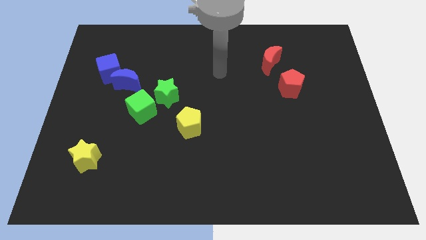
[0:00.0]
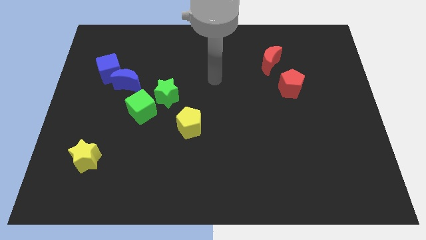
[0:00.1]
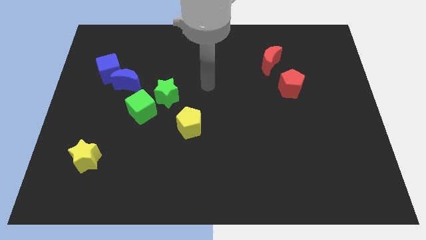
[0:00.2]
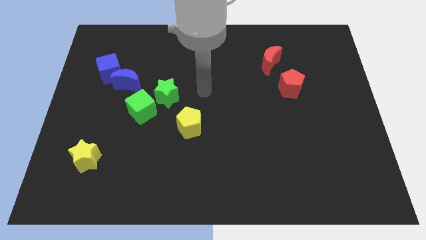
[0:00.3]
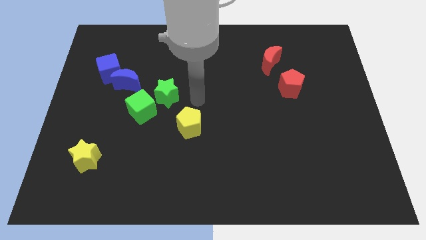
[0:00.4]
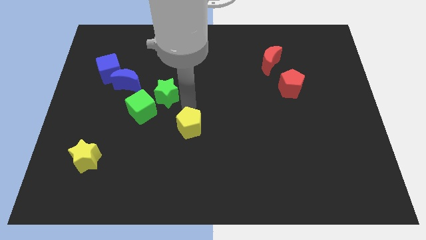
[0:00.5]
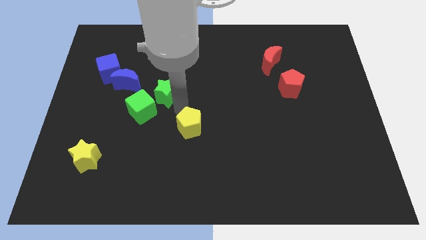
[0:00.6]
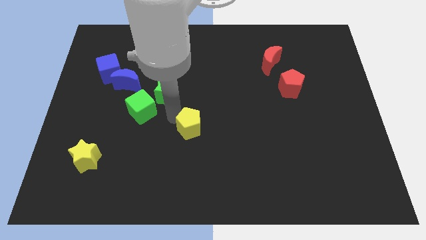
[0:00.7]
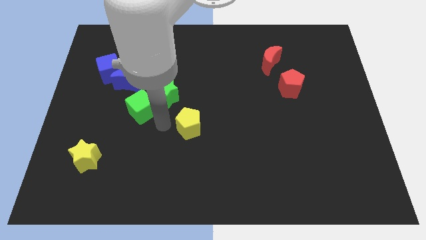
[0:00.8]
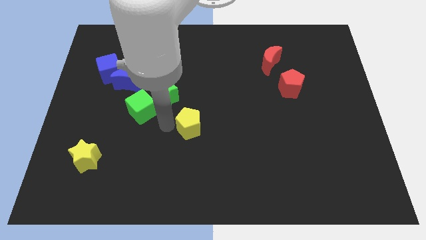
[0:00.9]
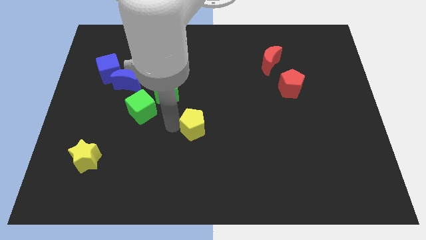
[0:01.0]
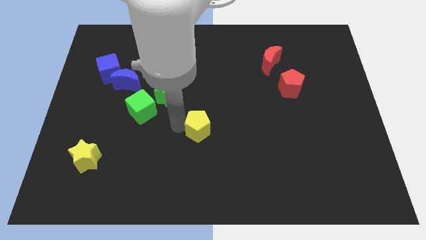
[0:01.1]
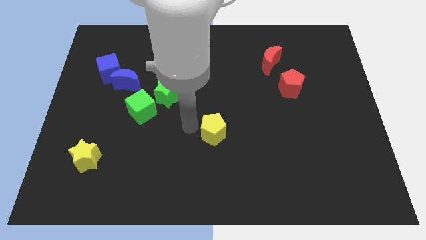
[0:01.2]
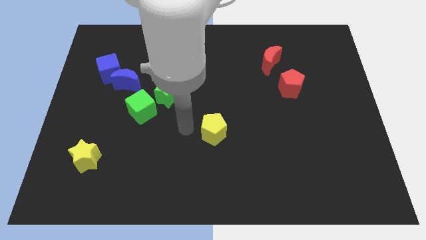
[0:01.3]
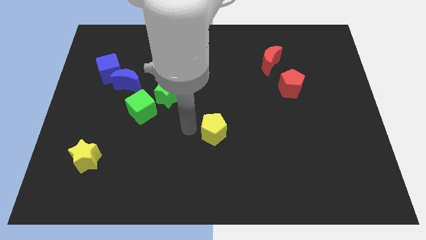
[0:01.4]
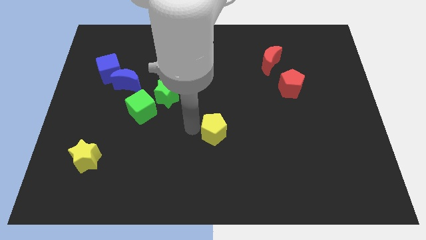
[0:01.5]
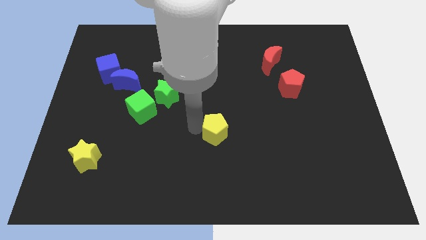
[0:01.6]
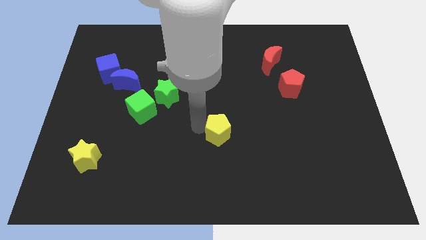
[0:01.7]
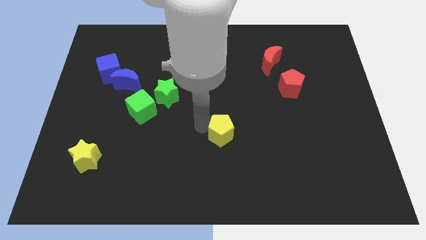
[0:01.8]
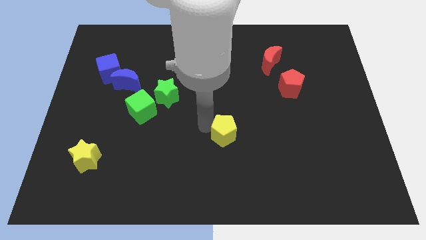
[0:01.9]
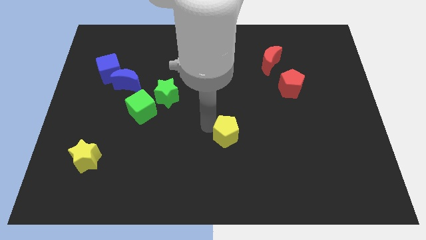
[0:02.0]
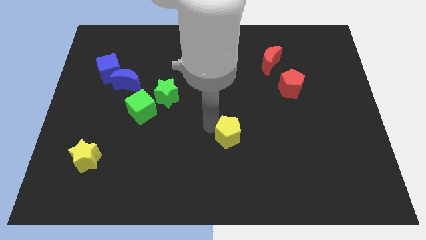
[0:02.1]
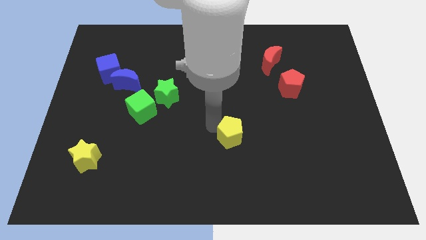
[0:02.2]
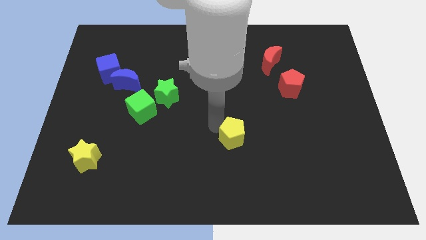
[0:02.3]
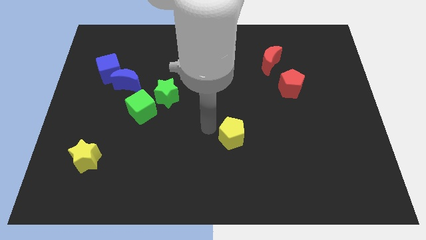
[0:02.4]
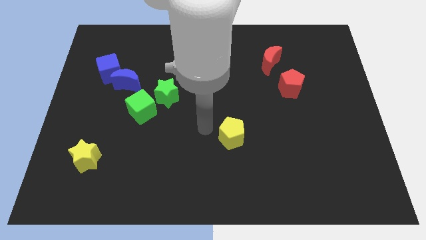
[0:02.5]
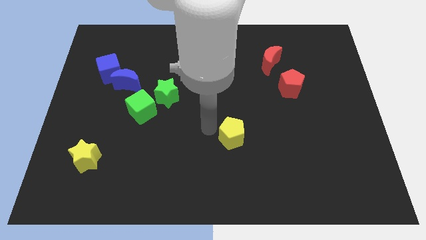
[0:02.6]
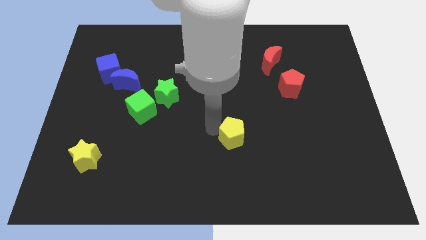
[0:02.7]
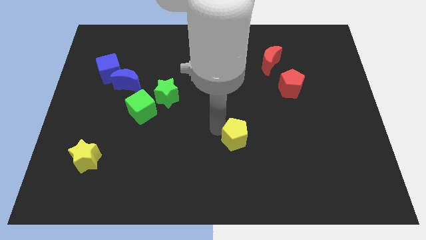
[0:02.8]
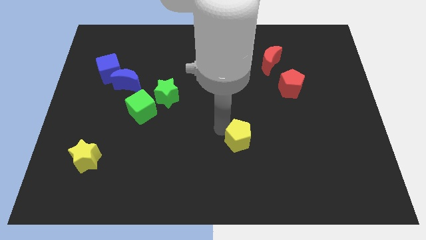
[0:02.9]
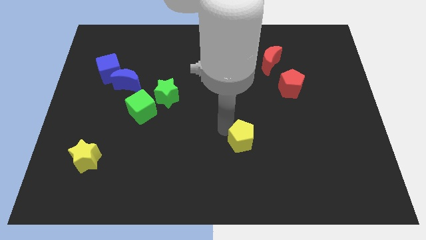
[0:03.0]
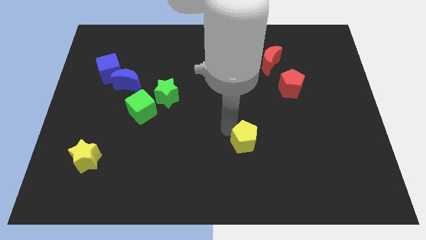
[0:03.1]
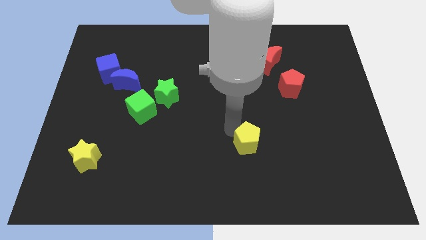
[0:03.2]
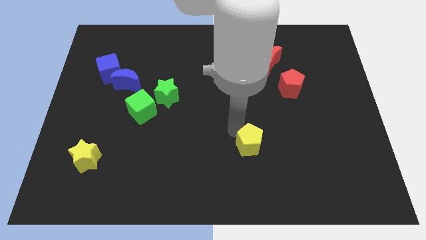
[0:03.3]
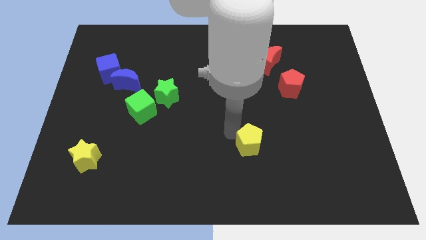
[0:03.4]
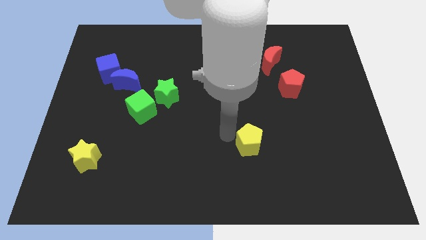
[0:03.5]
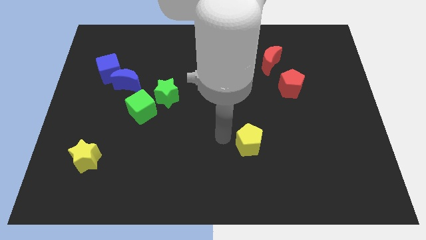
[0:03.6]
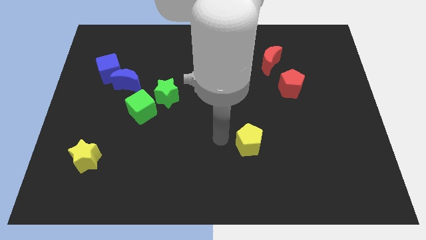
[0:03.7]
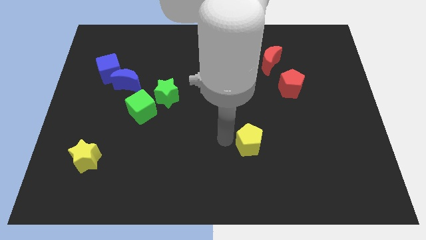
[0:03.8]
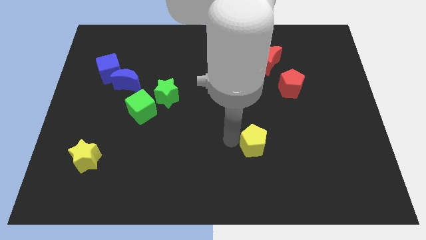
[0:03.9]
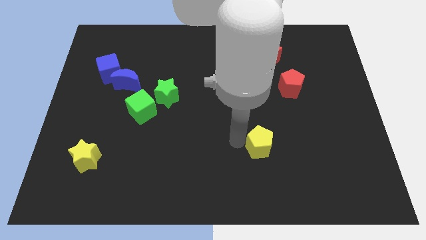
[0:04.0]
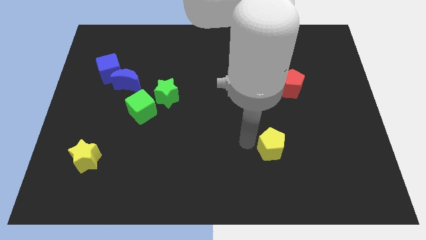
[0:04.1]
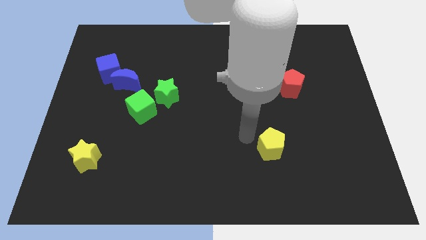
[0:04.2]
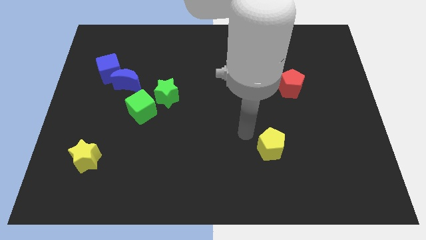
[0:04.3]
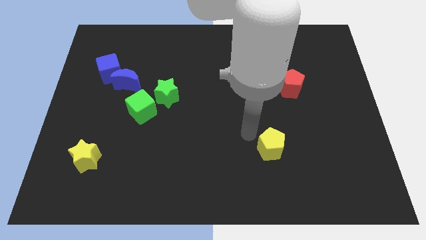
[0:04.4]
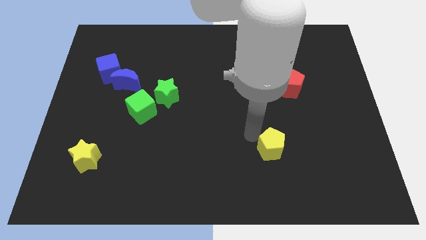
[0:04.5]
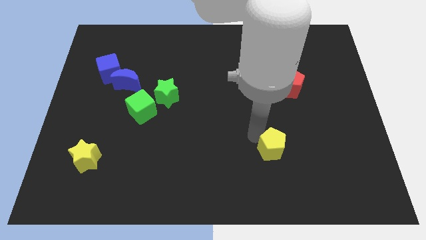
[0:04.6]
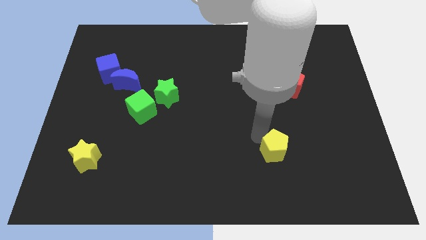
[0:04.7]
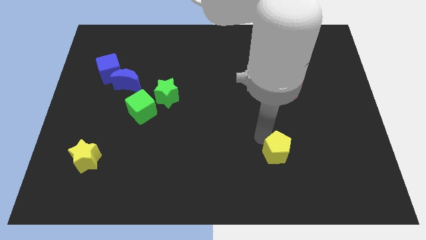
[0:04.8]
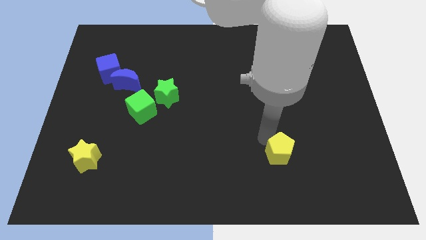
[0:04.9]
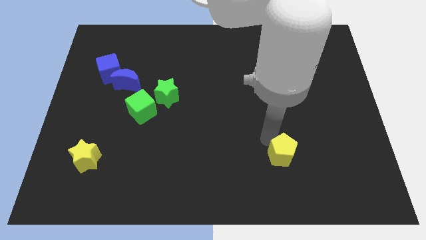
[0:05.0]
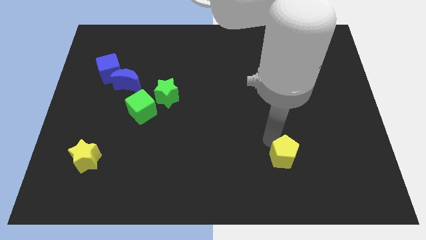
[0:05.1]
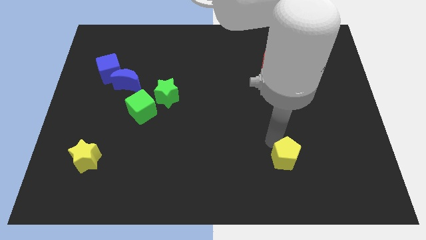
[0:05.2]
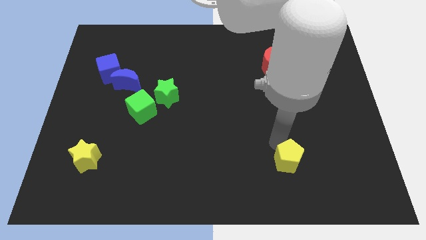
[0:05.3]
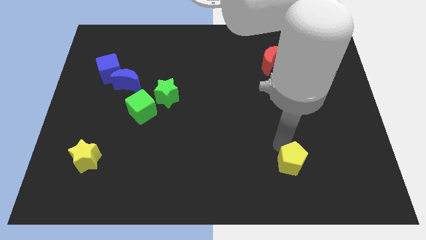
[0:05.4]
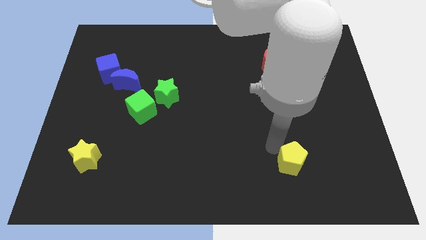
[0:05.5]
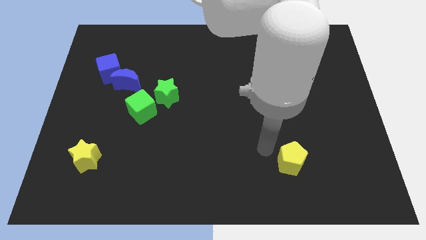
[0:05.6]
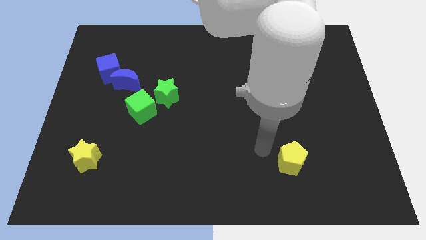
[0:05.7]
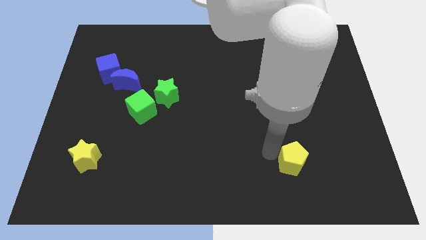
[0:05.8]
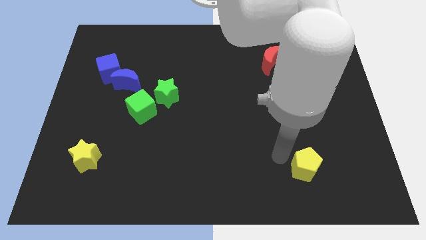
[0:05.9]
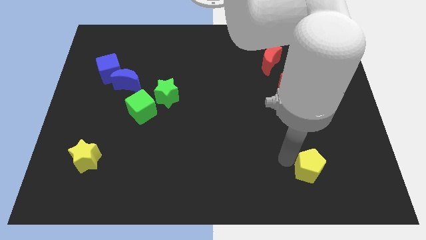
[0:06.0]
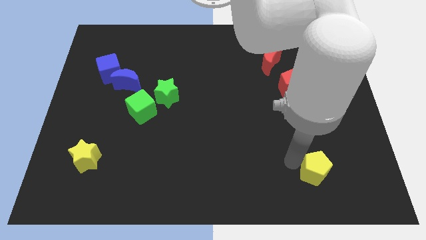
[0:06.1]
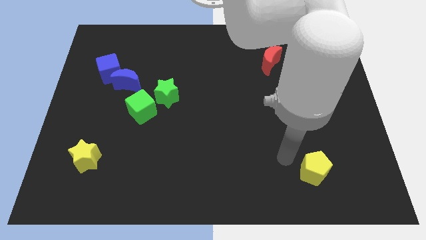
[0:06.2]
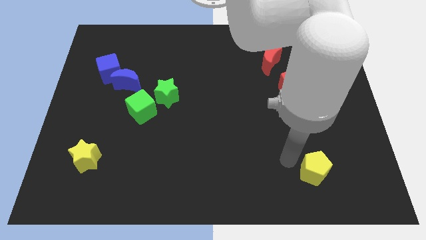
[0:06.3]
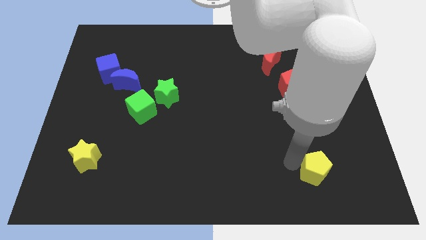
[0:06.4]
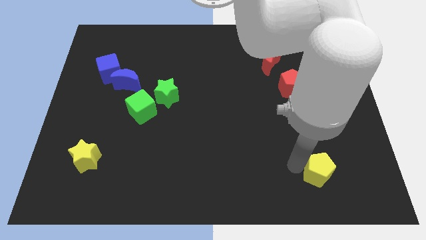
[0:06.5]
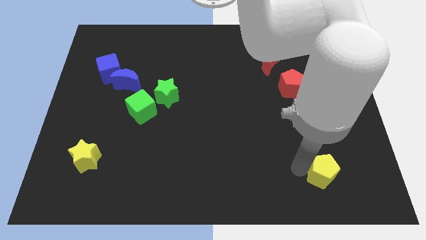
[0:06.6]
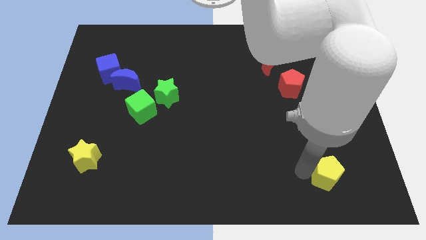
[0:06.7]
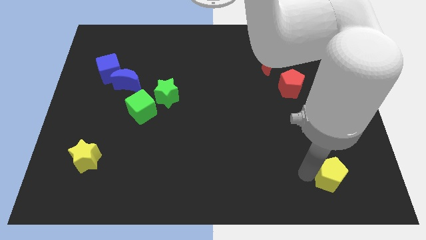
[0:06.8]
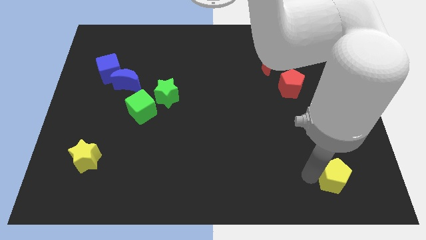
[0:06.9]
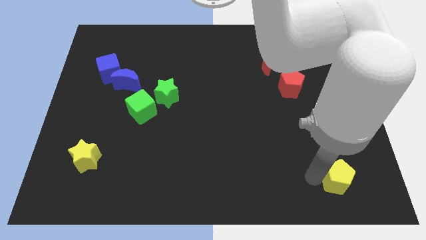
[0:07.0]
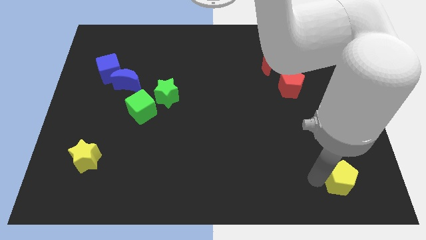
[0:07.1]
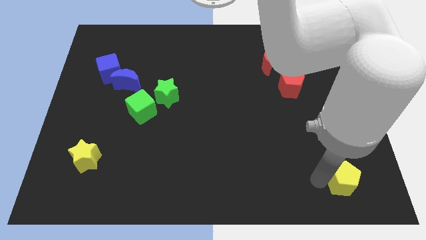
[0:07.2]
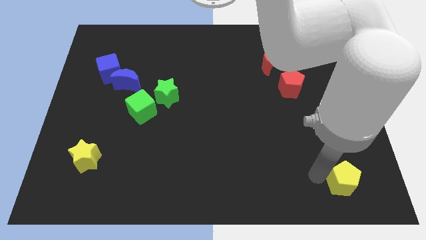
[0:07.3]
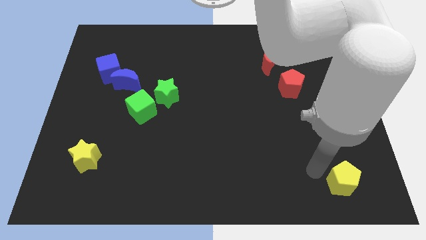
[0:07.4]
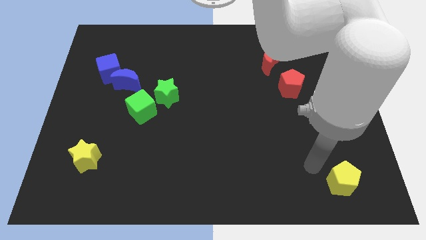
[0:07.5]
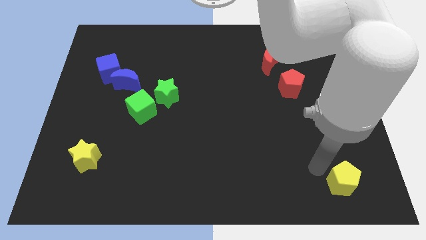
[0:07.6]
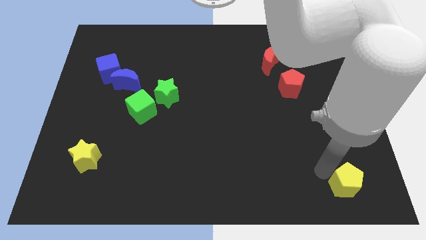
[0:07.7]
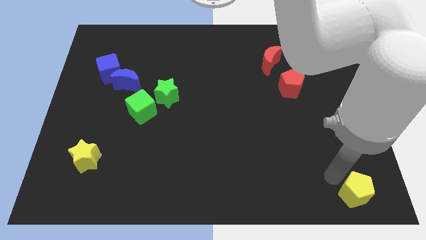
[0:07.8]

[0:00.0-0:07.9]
push the yellow pentagon to the bottom right of the board
